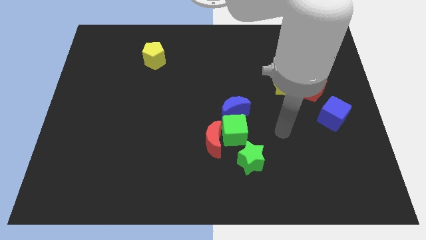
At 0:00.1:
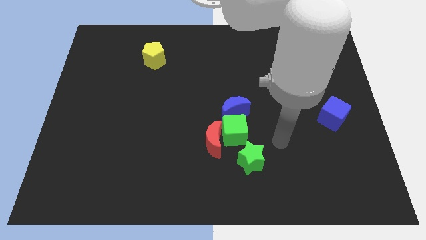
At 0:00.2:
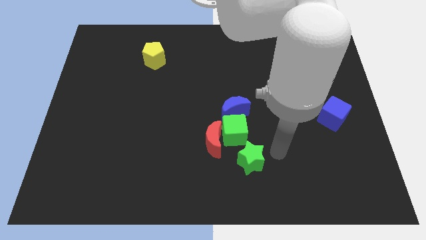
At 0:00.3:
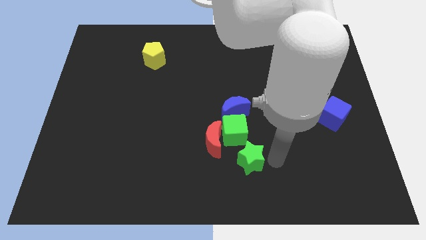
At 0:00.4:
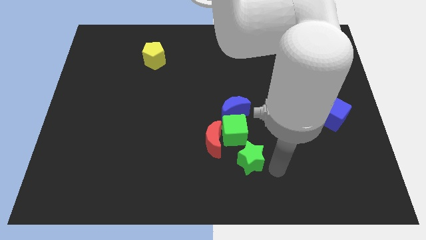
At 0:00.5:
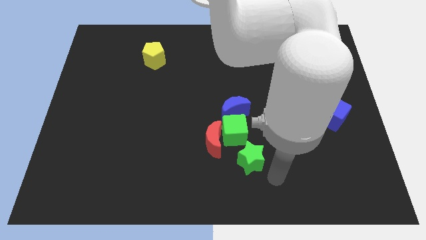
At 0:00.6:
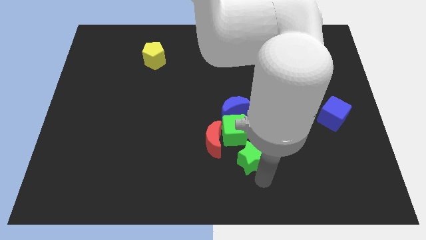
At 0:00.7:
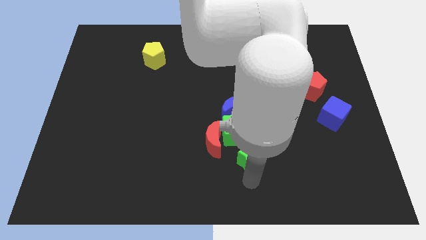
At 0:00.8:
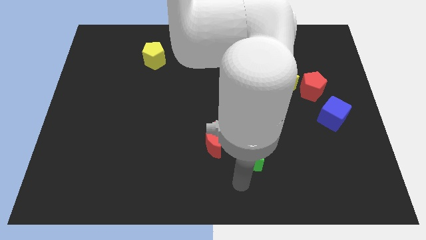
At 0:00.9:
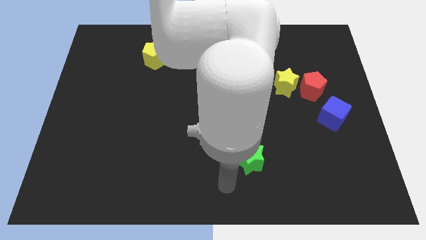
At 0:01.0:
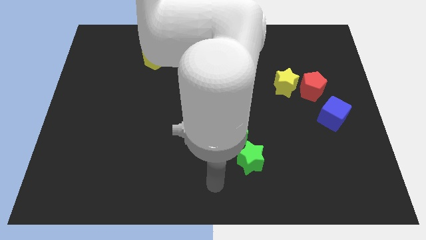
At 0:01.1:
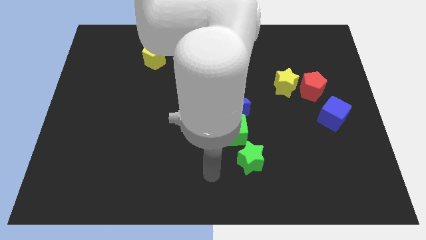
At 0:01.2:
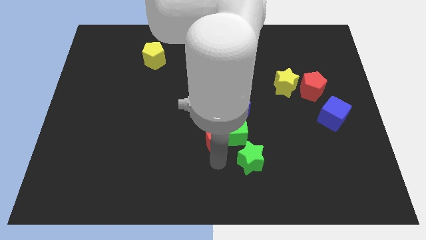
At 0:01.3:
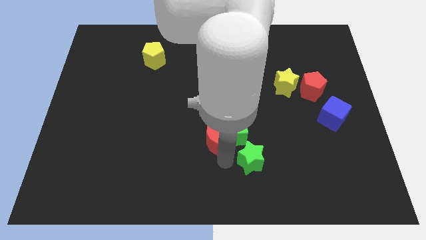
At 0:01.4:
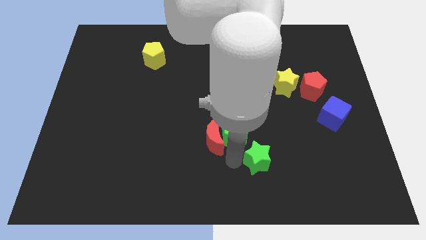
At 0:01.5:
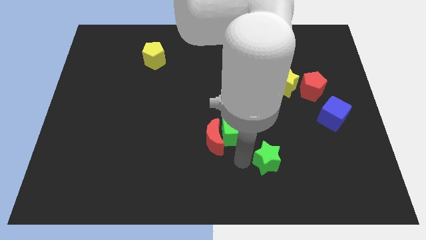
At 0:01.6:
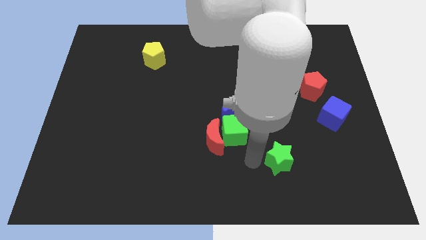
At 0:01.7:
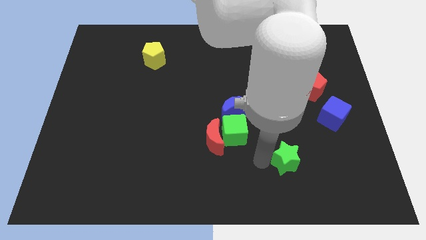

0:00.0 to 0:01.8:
slide the green star to the right slightly

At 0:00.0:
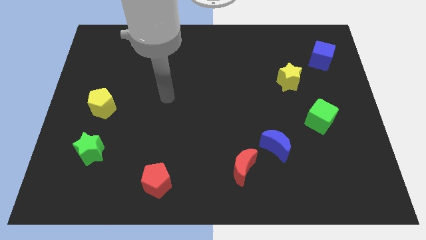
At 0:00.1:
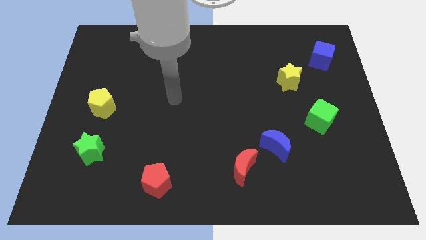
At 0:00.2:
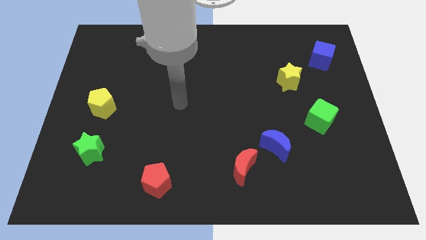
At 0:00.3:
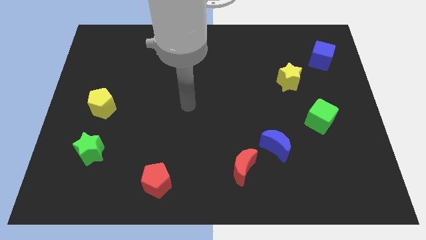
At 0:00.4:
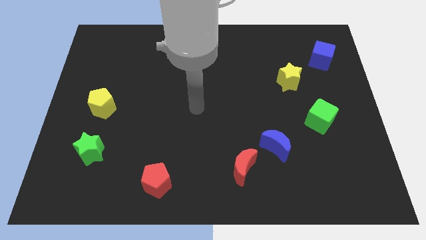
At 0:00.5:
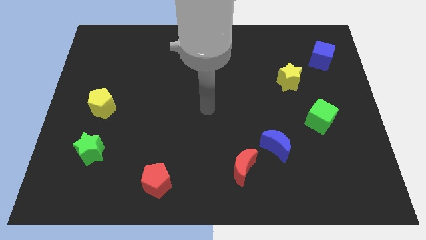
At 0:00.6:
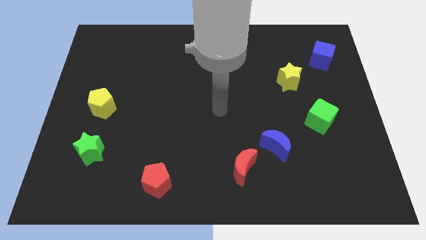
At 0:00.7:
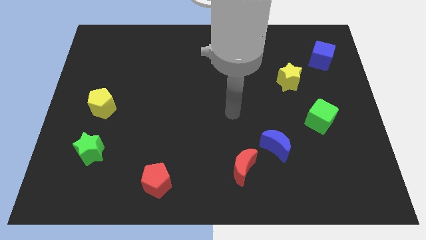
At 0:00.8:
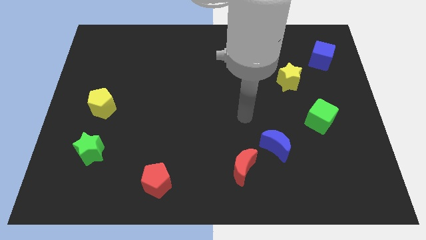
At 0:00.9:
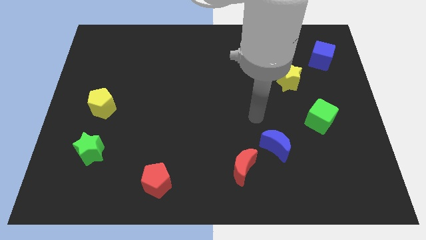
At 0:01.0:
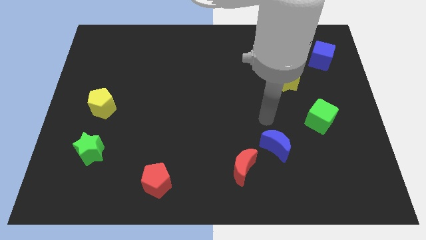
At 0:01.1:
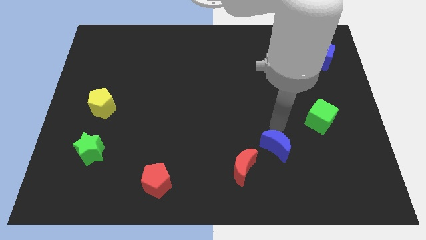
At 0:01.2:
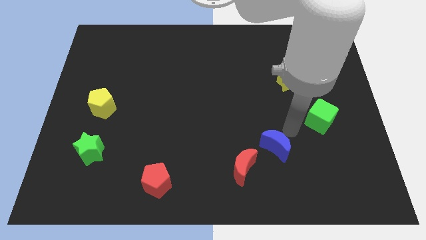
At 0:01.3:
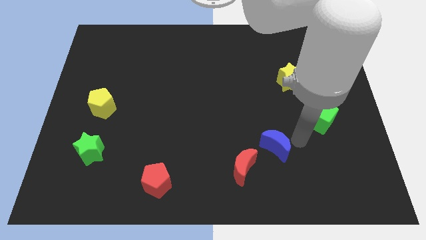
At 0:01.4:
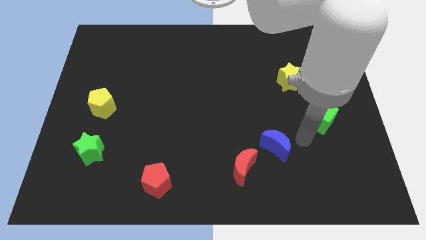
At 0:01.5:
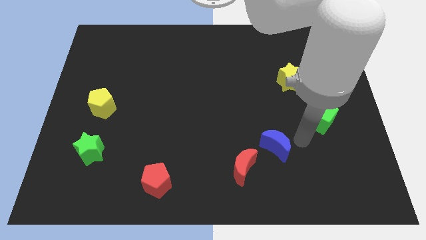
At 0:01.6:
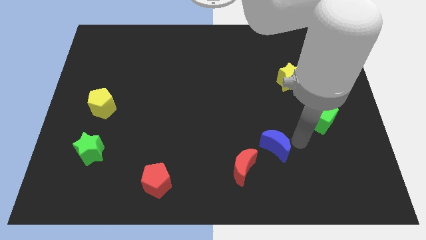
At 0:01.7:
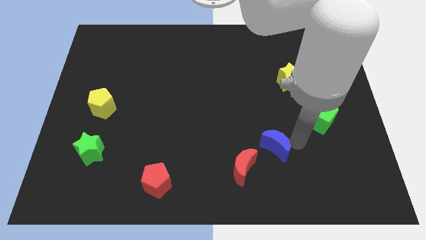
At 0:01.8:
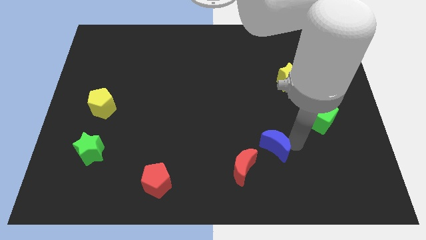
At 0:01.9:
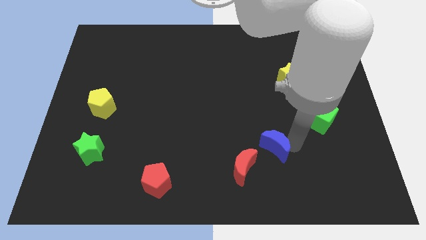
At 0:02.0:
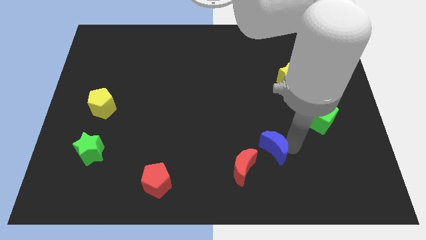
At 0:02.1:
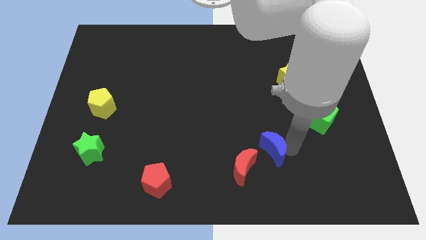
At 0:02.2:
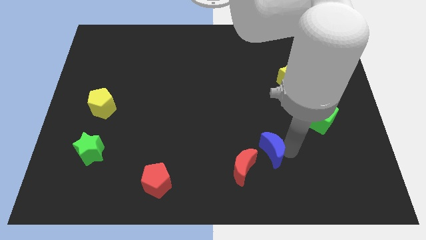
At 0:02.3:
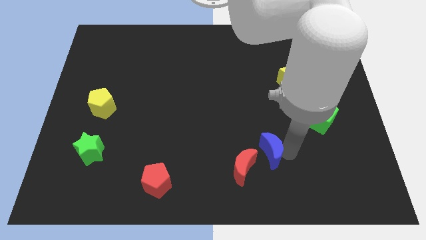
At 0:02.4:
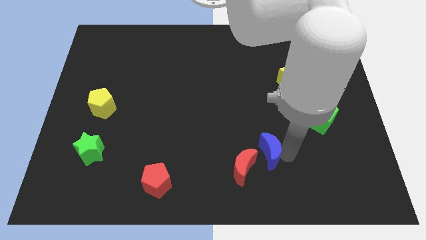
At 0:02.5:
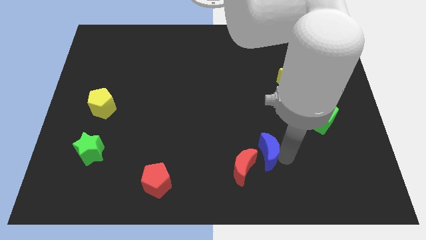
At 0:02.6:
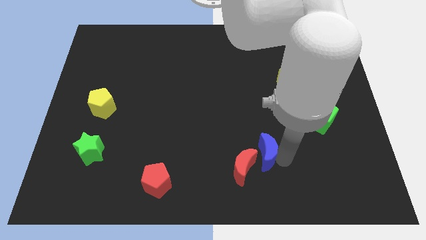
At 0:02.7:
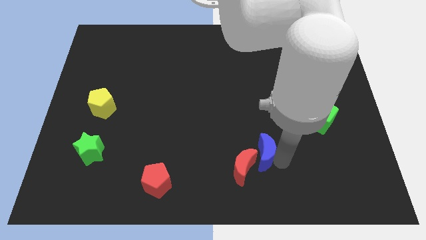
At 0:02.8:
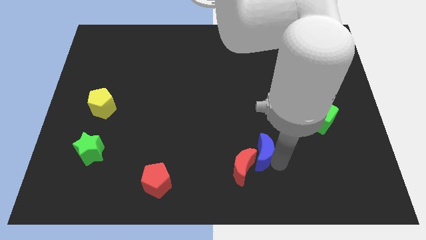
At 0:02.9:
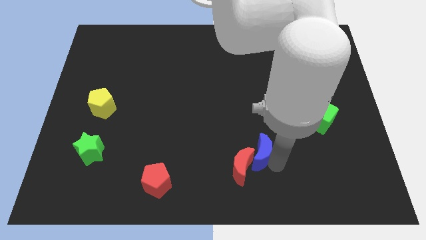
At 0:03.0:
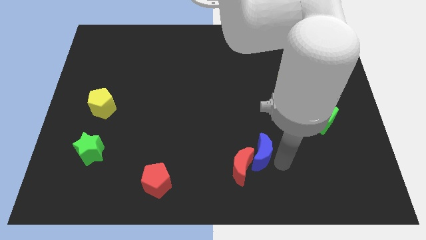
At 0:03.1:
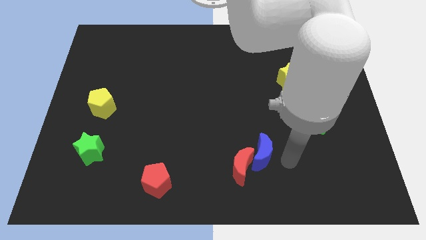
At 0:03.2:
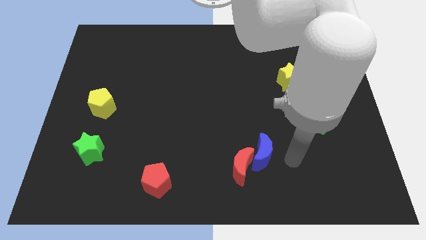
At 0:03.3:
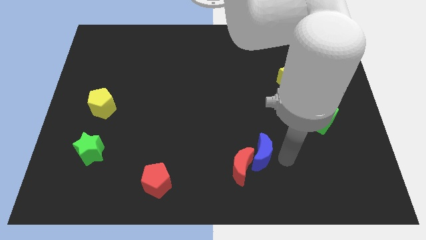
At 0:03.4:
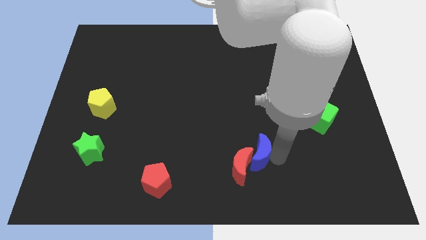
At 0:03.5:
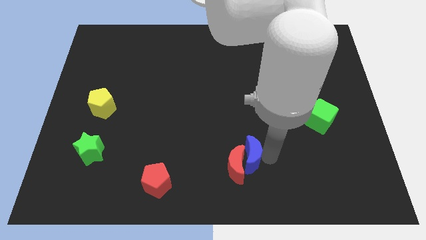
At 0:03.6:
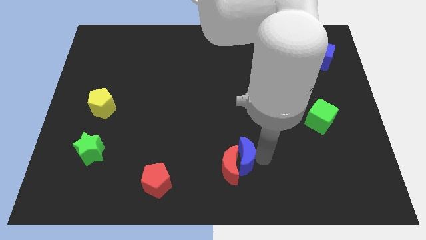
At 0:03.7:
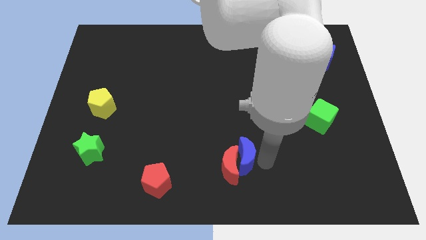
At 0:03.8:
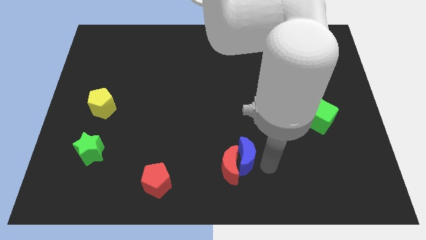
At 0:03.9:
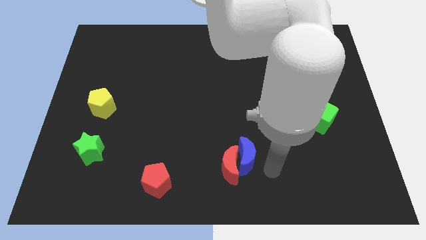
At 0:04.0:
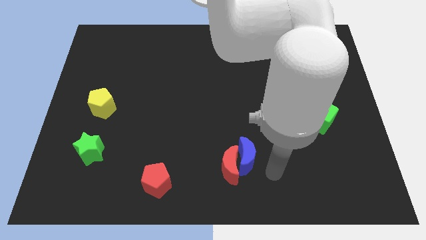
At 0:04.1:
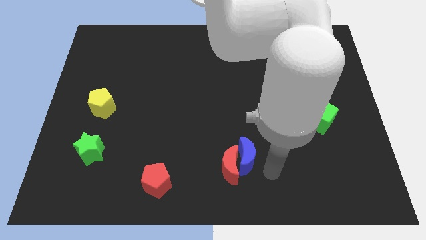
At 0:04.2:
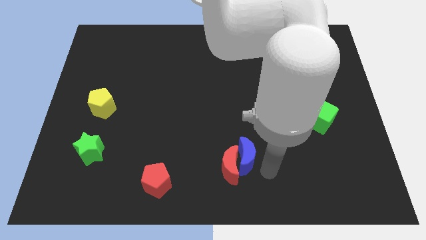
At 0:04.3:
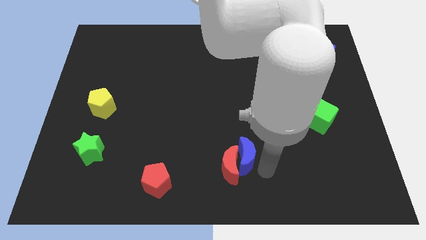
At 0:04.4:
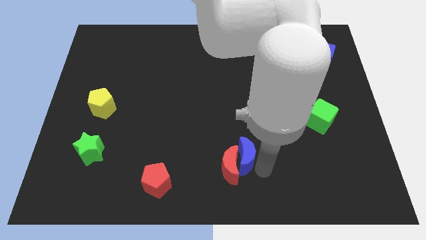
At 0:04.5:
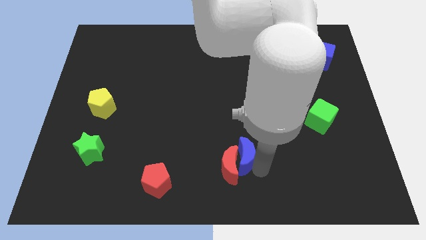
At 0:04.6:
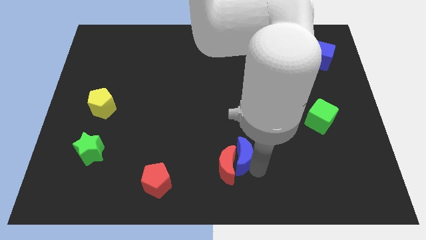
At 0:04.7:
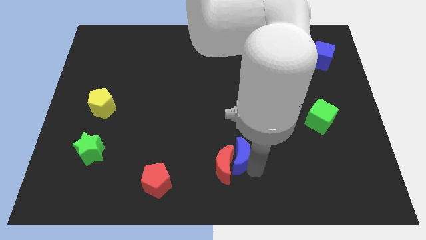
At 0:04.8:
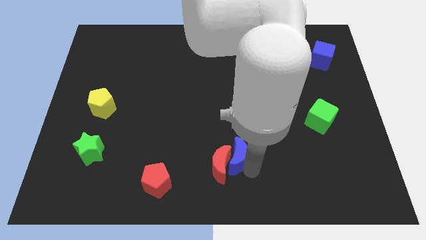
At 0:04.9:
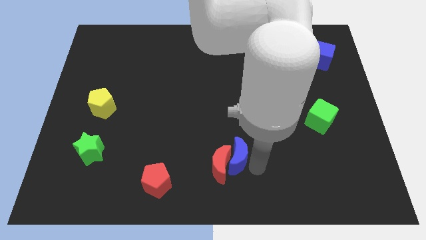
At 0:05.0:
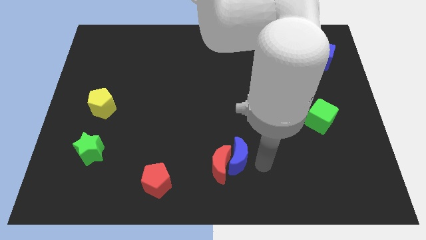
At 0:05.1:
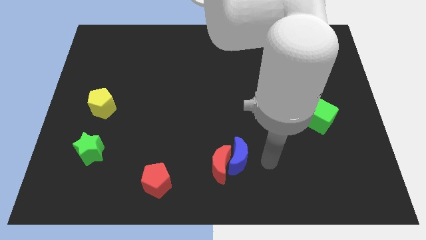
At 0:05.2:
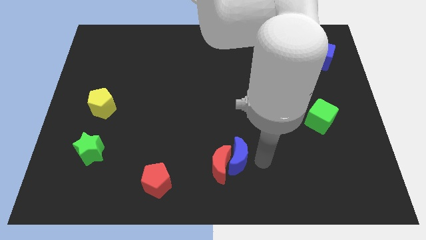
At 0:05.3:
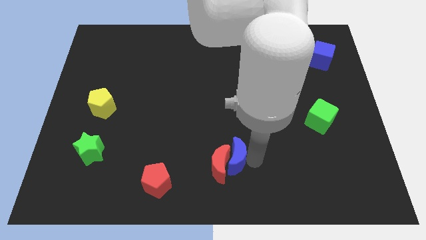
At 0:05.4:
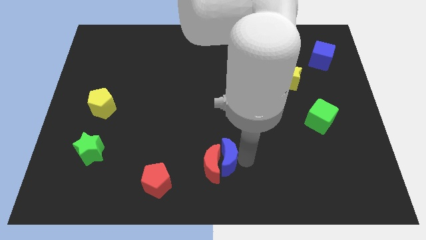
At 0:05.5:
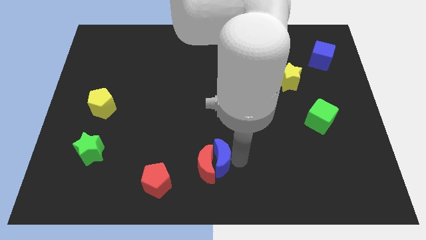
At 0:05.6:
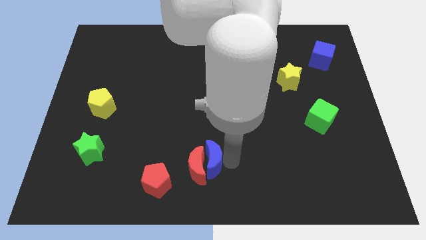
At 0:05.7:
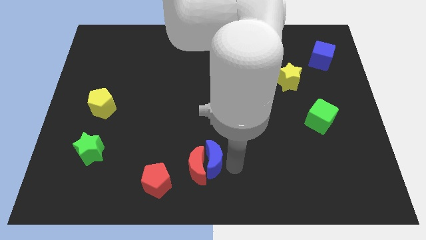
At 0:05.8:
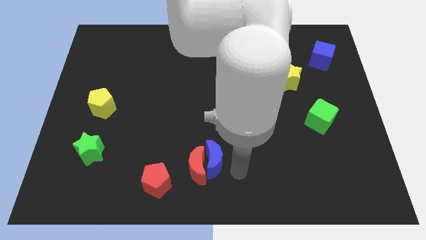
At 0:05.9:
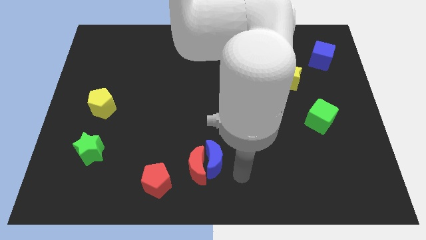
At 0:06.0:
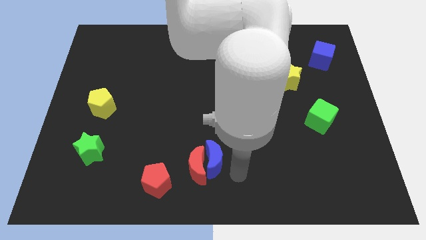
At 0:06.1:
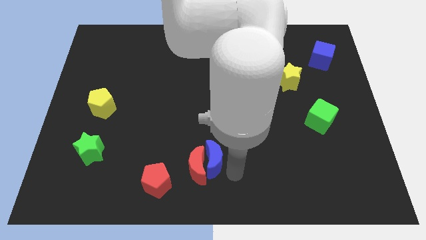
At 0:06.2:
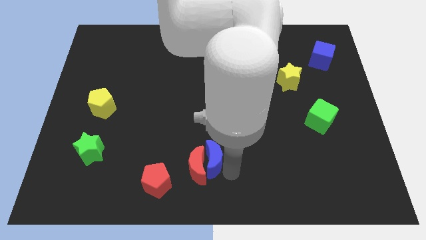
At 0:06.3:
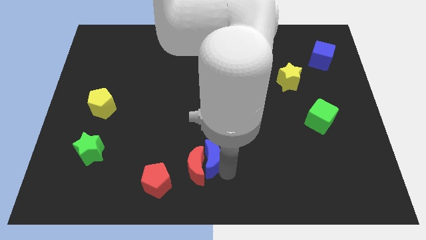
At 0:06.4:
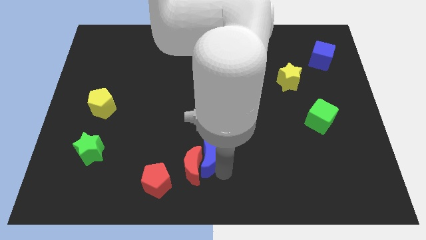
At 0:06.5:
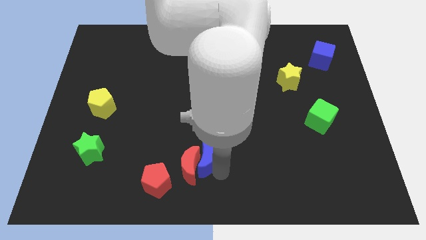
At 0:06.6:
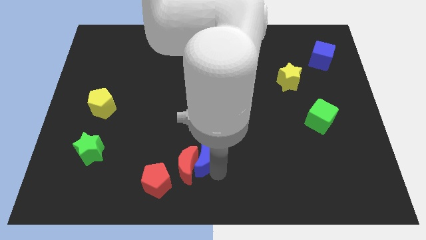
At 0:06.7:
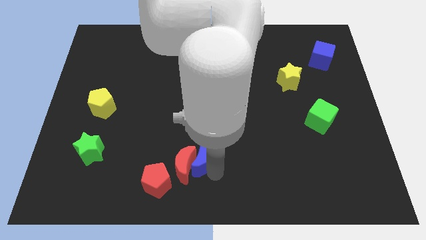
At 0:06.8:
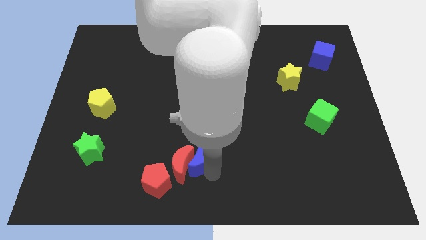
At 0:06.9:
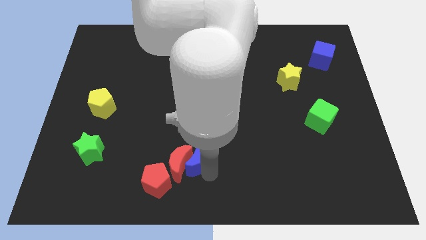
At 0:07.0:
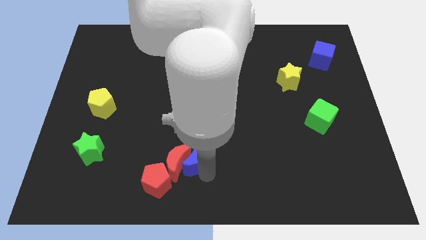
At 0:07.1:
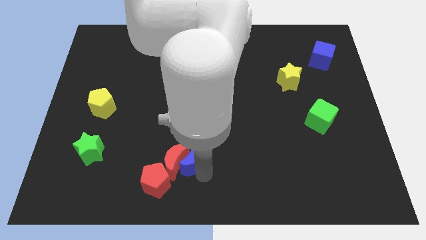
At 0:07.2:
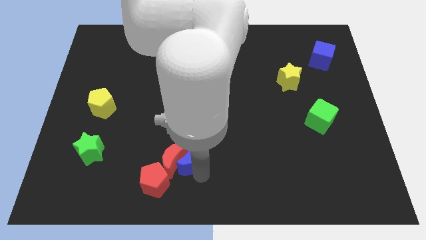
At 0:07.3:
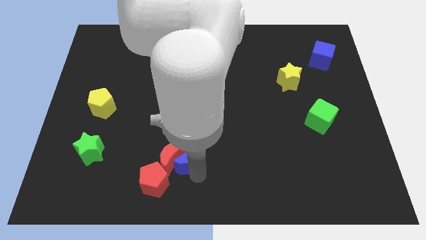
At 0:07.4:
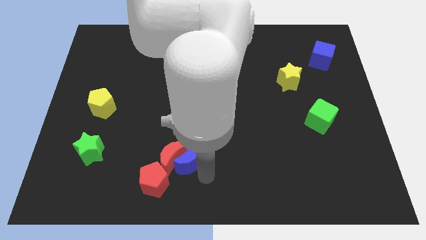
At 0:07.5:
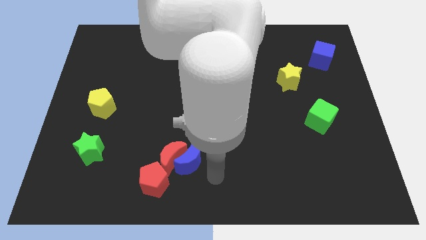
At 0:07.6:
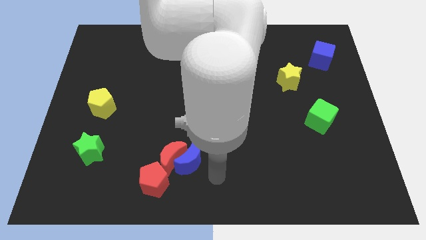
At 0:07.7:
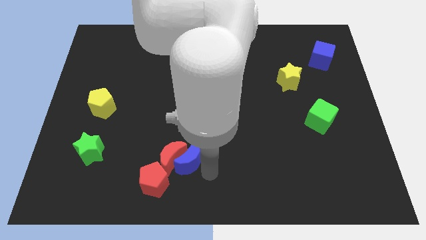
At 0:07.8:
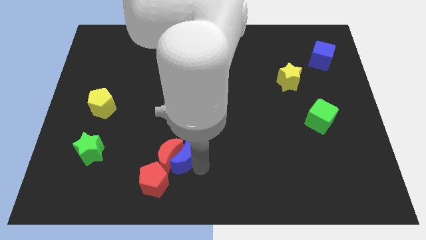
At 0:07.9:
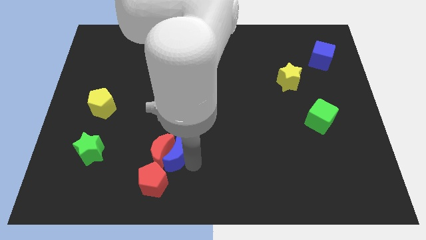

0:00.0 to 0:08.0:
move the blue moon left
